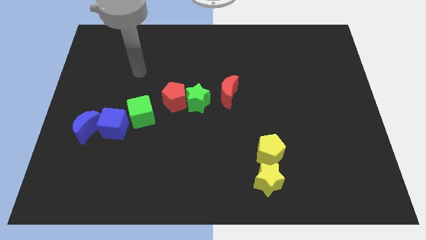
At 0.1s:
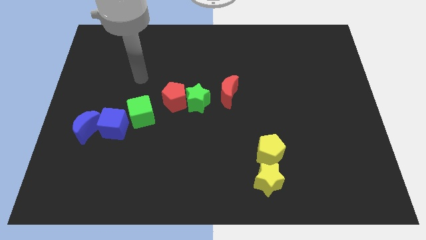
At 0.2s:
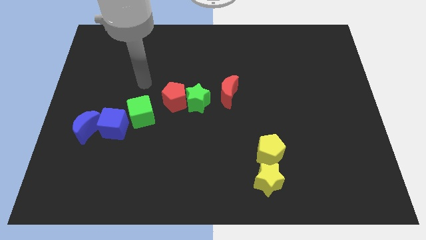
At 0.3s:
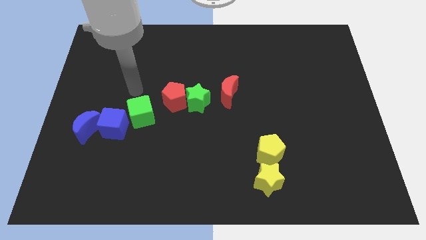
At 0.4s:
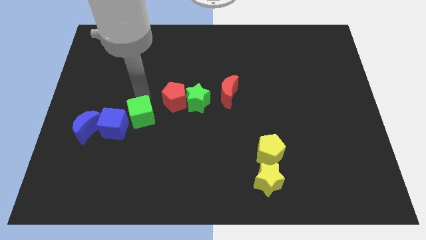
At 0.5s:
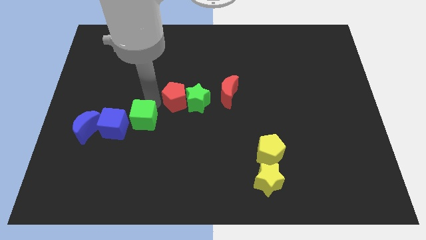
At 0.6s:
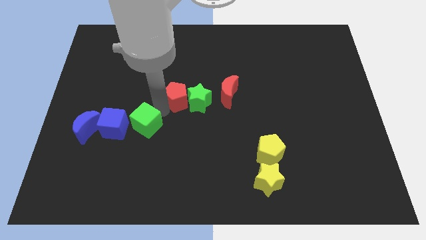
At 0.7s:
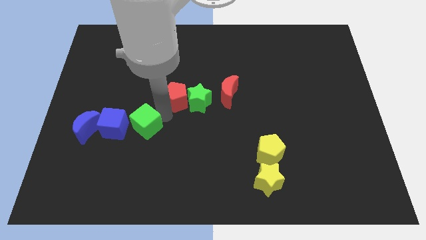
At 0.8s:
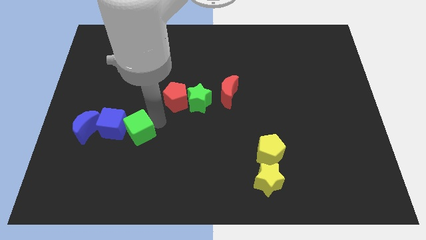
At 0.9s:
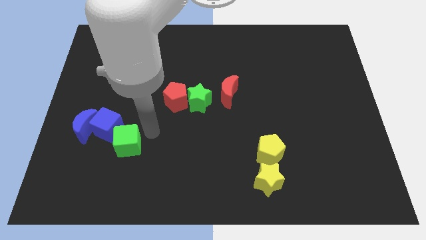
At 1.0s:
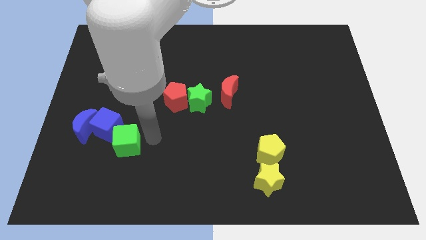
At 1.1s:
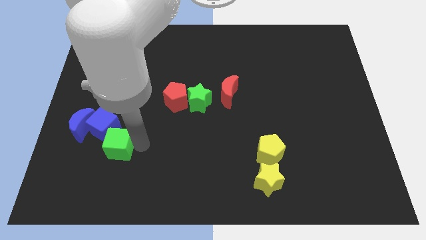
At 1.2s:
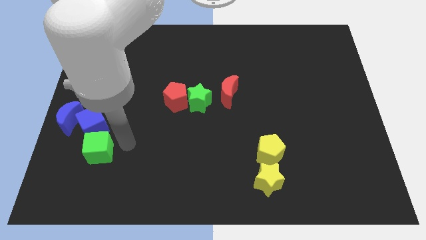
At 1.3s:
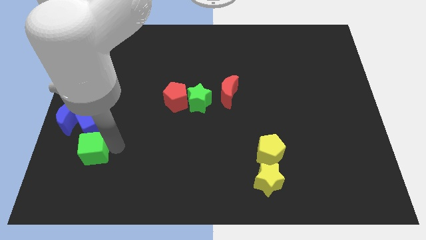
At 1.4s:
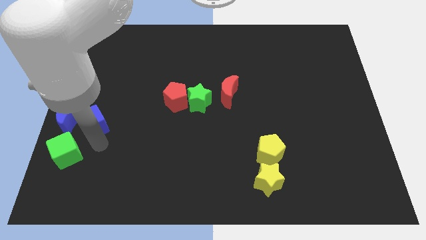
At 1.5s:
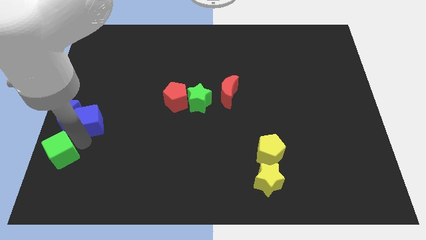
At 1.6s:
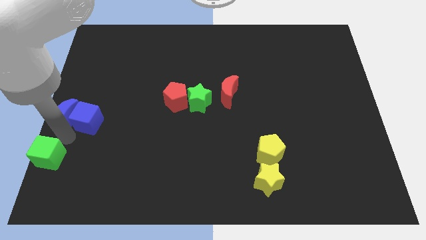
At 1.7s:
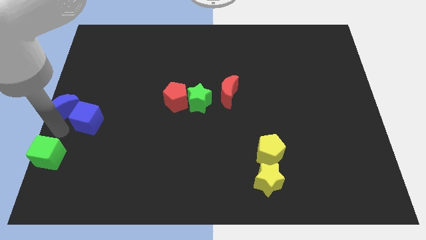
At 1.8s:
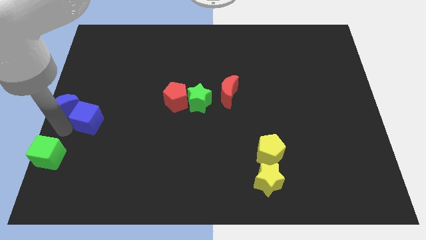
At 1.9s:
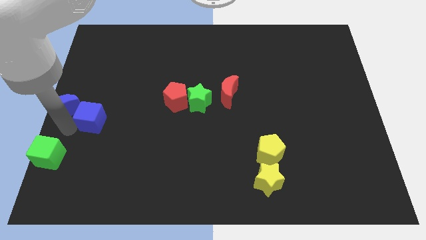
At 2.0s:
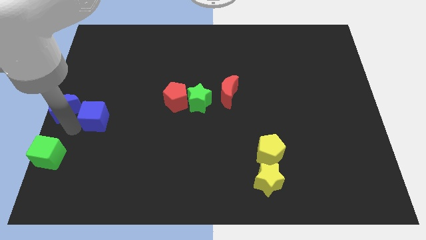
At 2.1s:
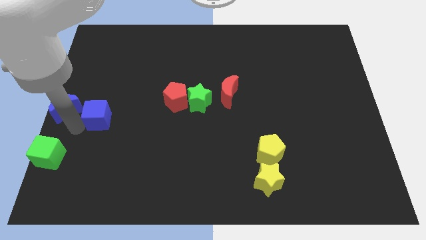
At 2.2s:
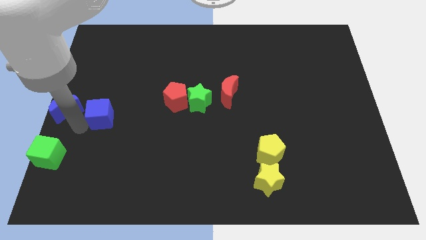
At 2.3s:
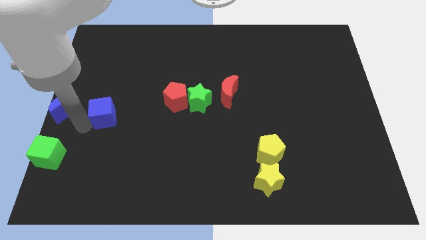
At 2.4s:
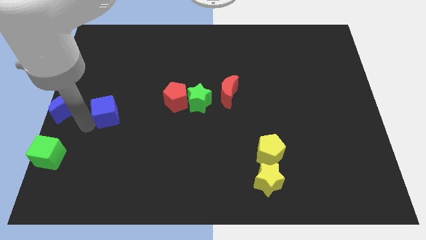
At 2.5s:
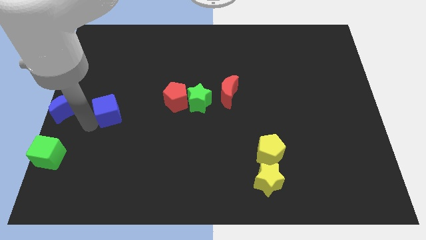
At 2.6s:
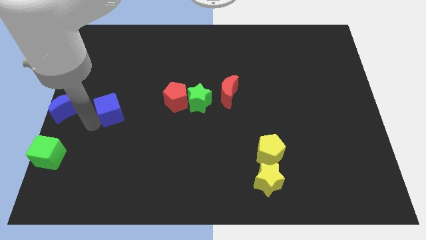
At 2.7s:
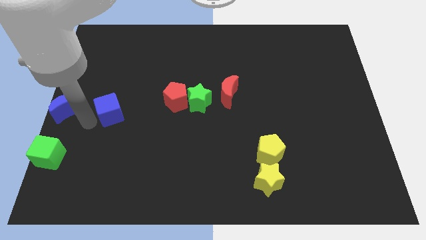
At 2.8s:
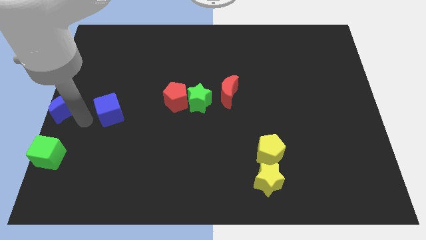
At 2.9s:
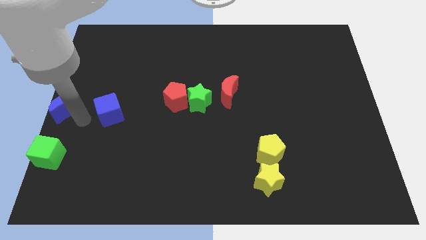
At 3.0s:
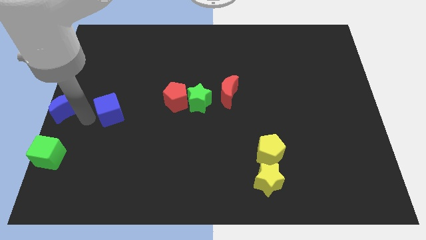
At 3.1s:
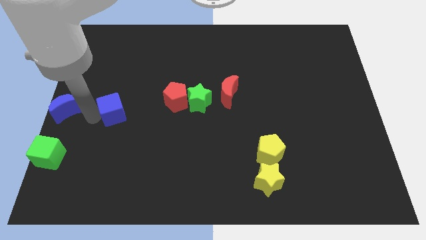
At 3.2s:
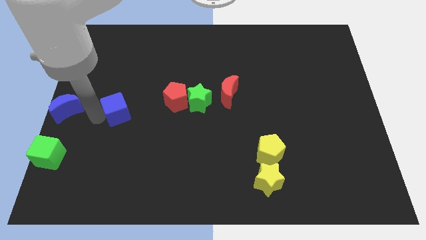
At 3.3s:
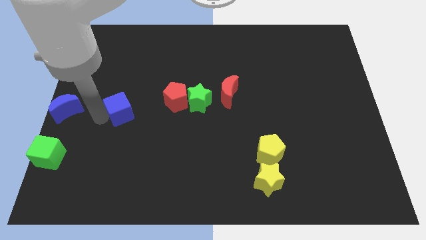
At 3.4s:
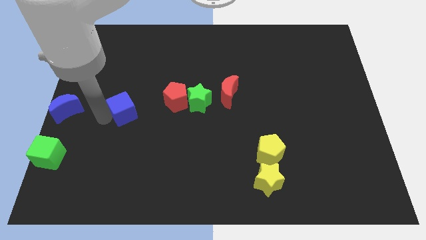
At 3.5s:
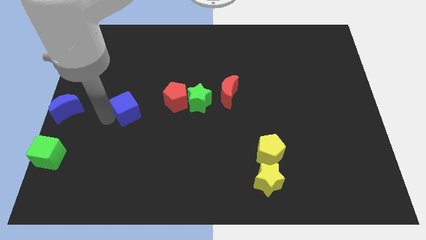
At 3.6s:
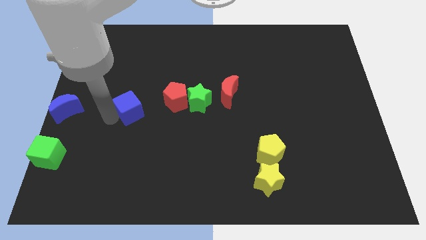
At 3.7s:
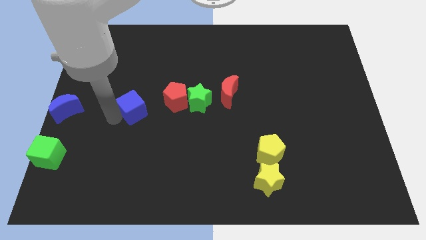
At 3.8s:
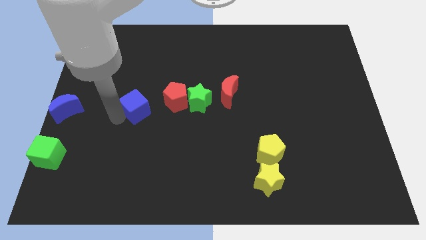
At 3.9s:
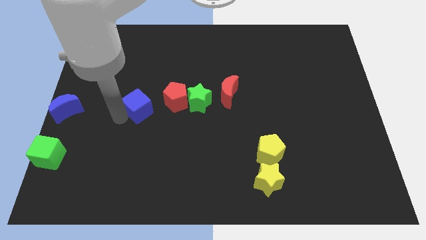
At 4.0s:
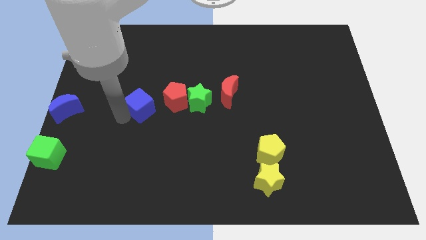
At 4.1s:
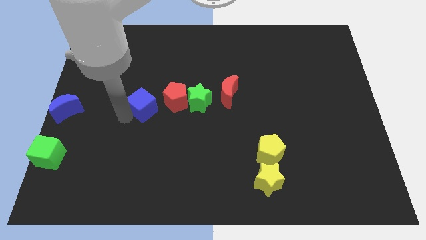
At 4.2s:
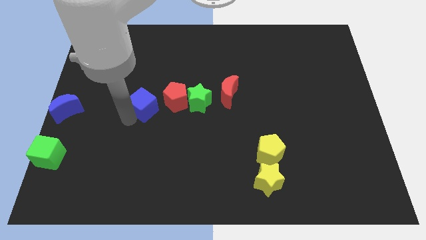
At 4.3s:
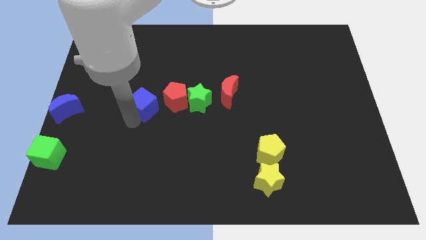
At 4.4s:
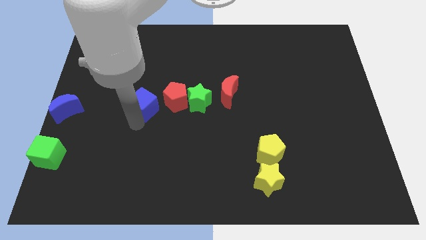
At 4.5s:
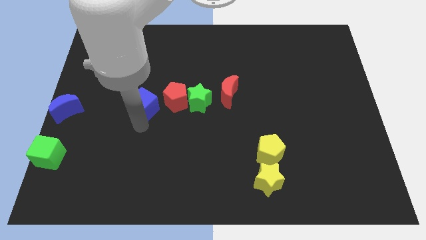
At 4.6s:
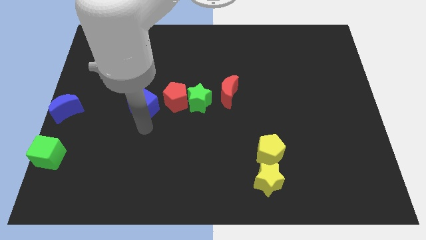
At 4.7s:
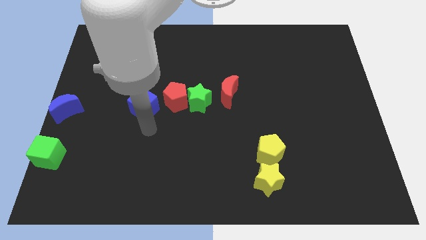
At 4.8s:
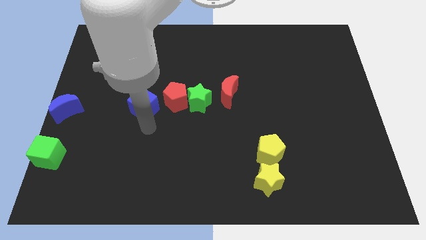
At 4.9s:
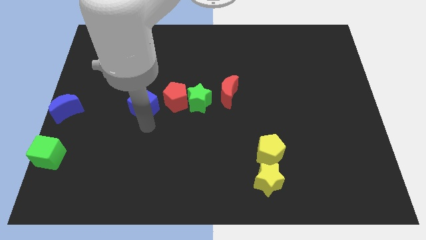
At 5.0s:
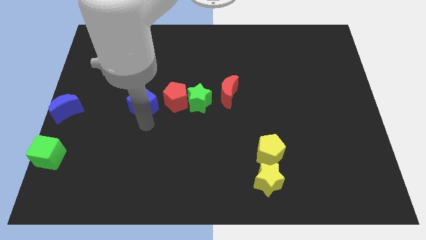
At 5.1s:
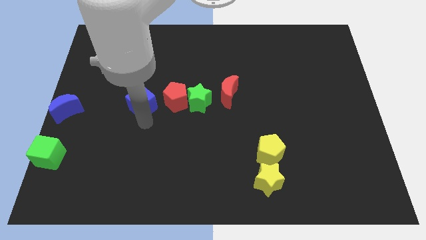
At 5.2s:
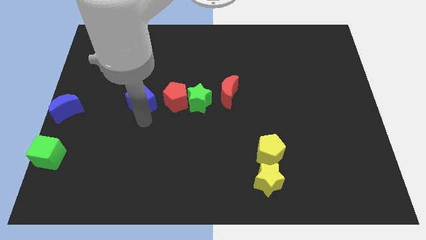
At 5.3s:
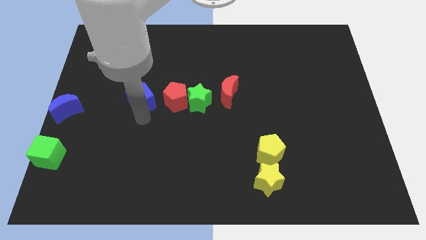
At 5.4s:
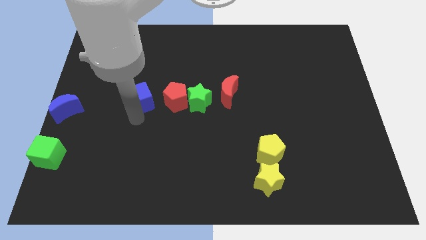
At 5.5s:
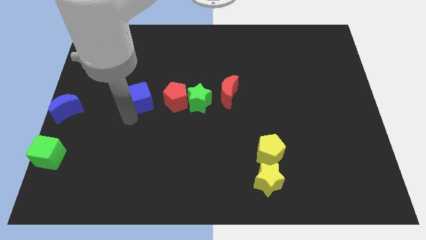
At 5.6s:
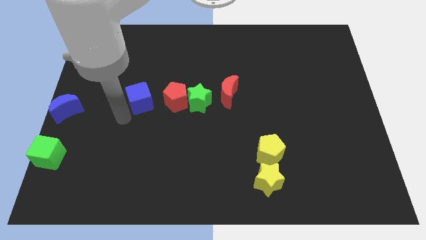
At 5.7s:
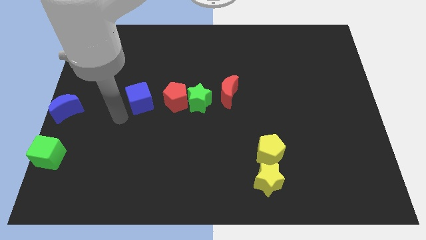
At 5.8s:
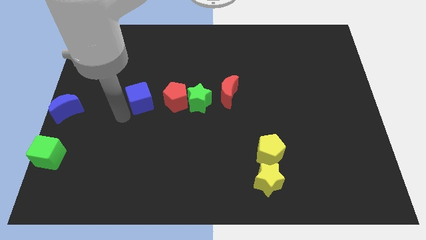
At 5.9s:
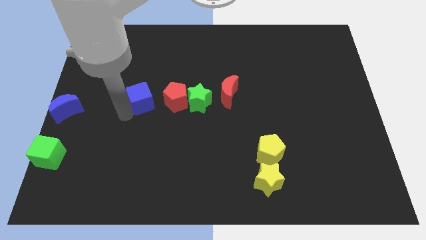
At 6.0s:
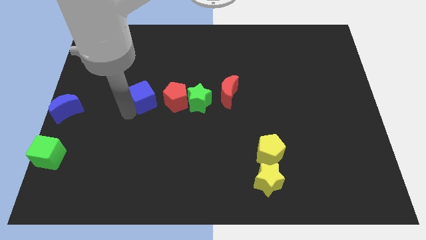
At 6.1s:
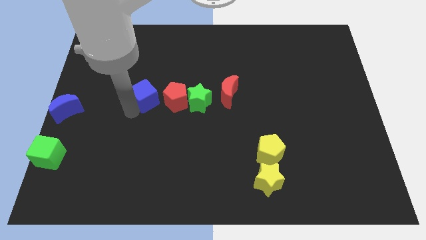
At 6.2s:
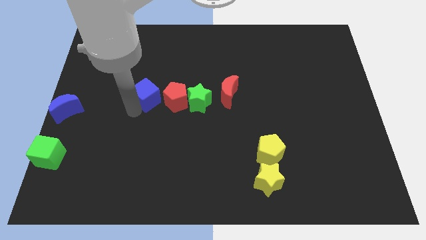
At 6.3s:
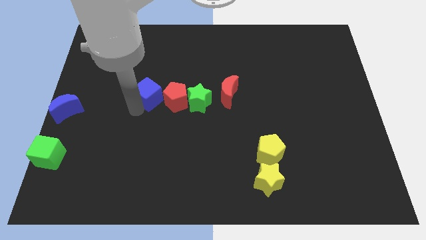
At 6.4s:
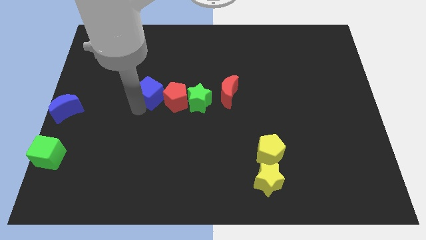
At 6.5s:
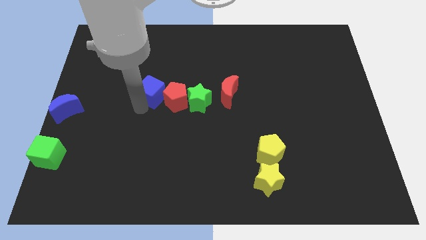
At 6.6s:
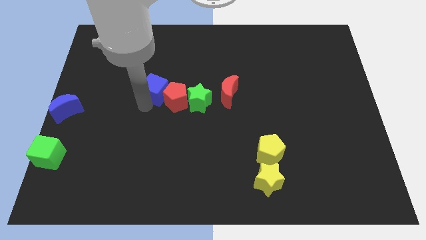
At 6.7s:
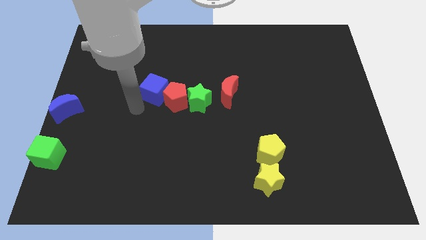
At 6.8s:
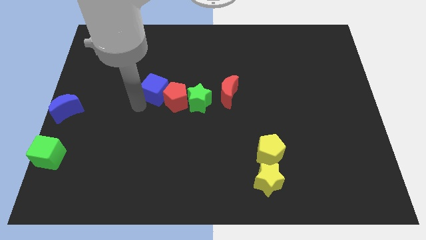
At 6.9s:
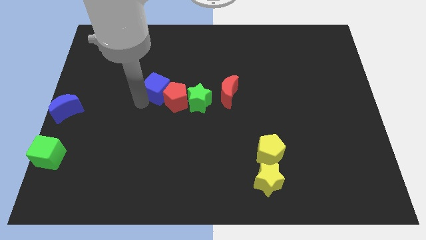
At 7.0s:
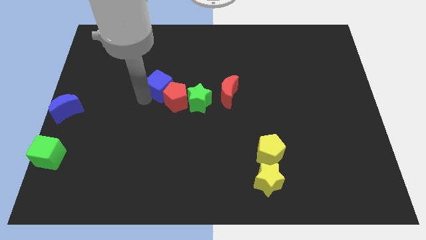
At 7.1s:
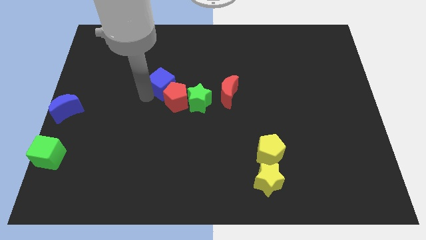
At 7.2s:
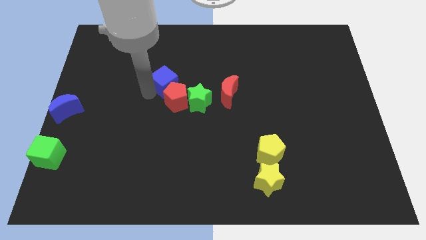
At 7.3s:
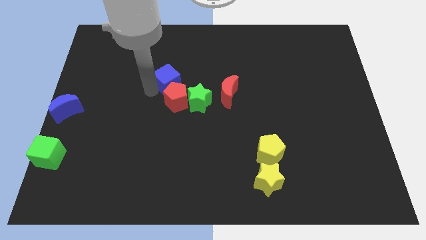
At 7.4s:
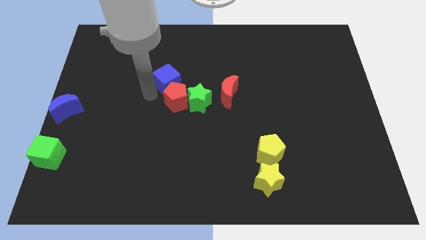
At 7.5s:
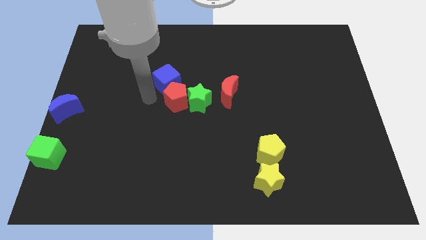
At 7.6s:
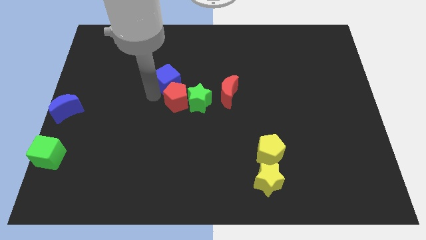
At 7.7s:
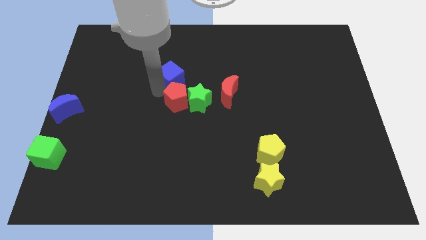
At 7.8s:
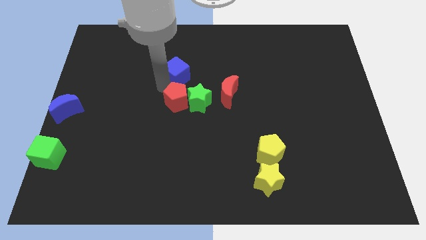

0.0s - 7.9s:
push the blue cube diagonally up and to the right
